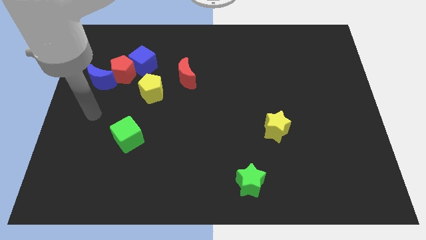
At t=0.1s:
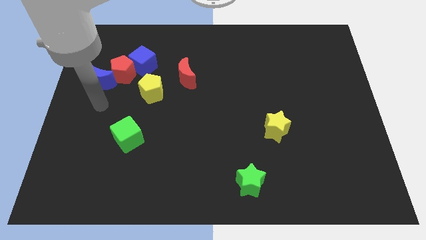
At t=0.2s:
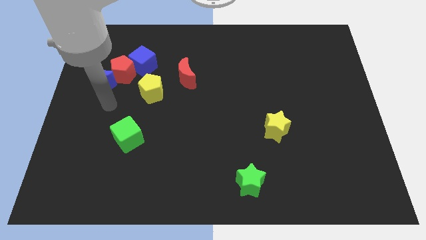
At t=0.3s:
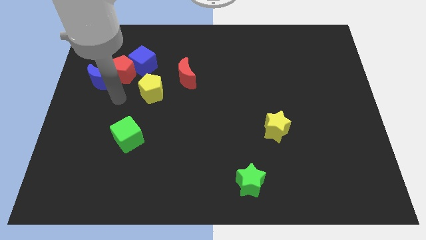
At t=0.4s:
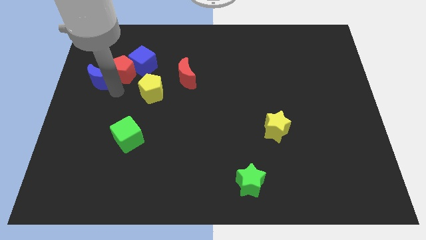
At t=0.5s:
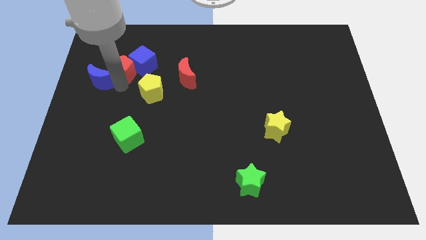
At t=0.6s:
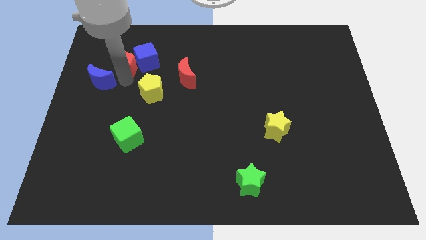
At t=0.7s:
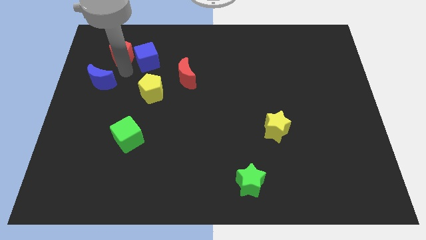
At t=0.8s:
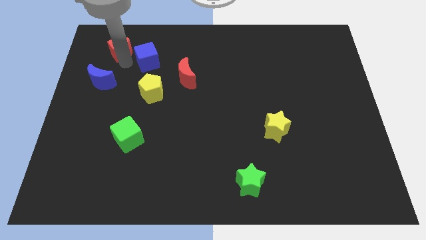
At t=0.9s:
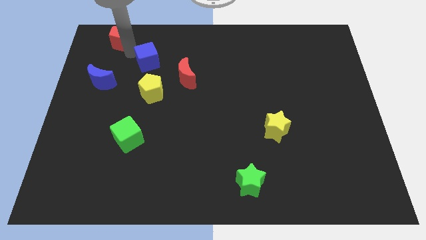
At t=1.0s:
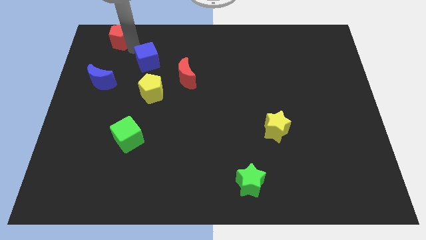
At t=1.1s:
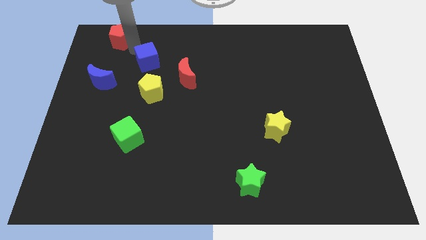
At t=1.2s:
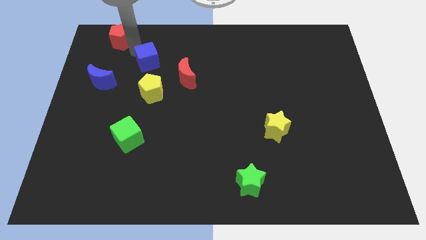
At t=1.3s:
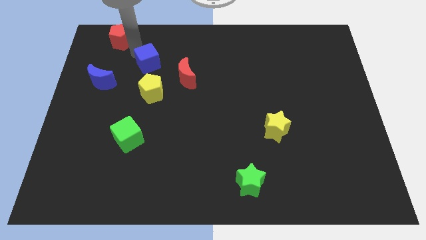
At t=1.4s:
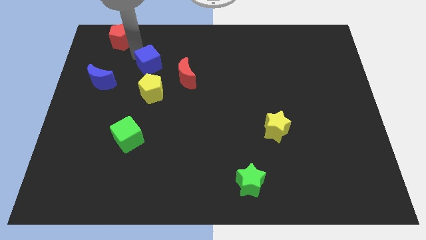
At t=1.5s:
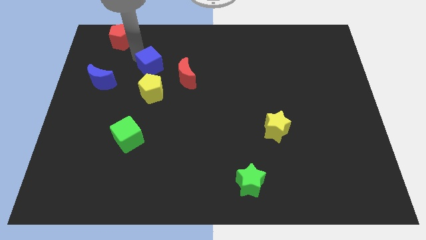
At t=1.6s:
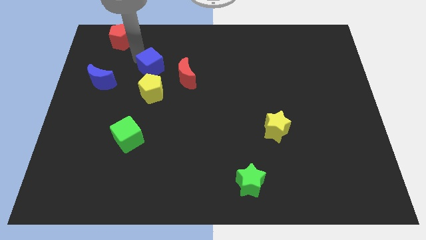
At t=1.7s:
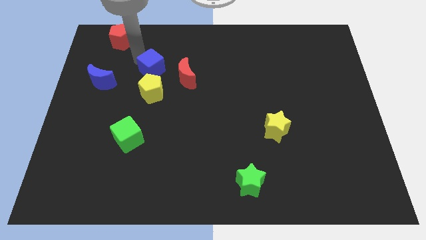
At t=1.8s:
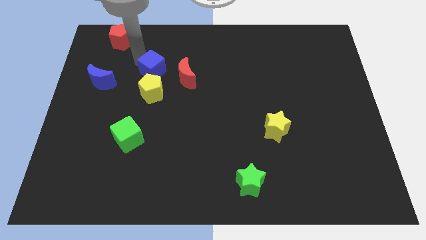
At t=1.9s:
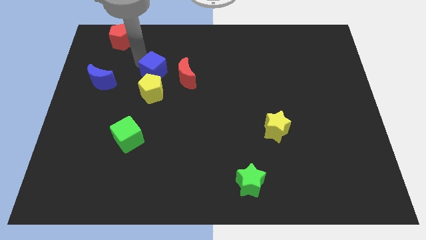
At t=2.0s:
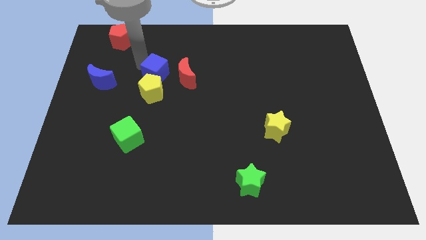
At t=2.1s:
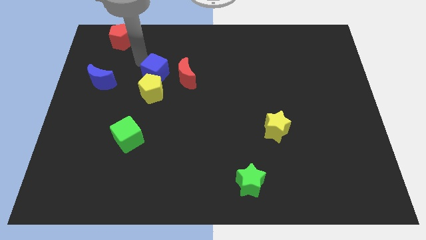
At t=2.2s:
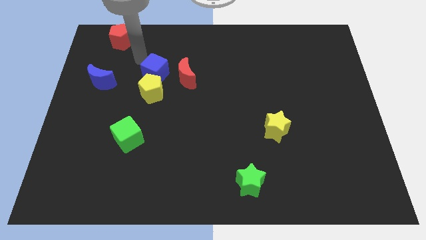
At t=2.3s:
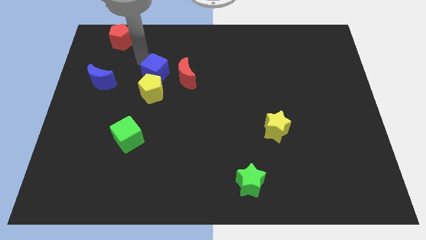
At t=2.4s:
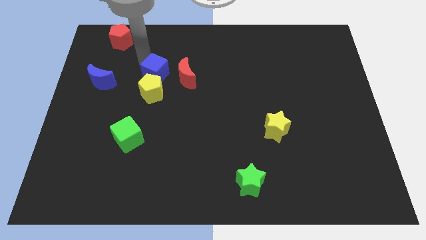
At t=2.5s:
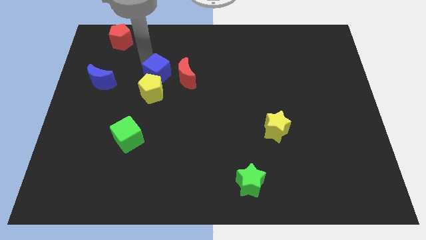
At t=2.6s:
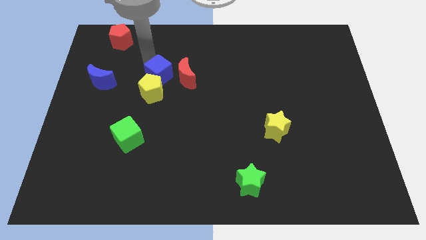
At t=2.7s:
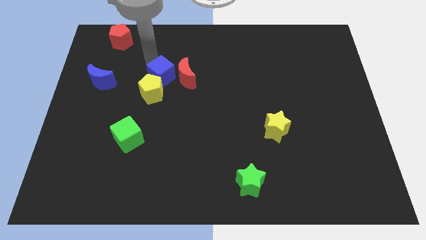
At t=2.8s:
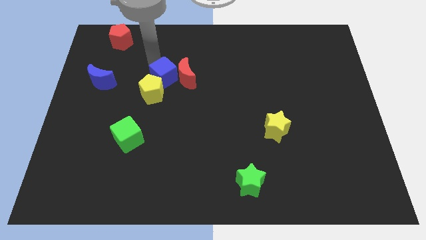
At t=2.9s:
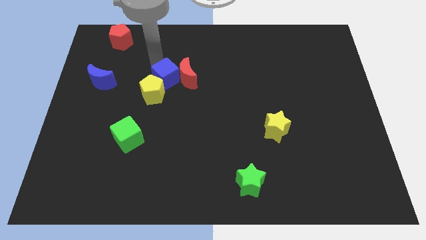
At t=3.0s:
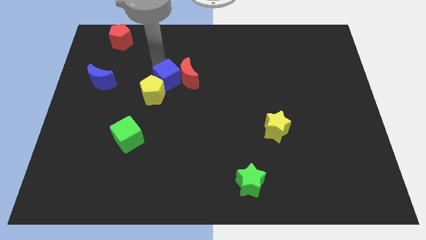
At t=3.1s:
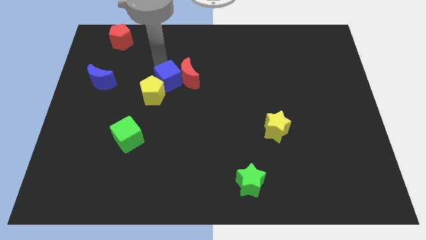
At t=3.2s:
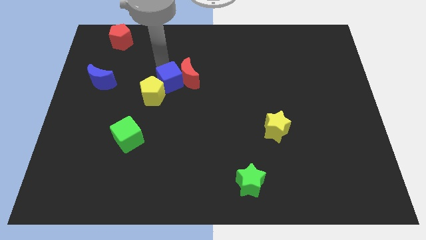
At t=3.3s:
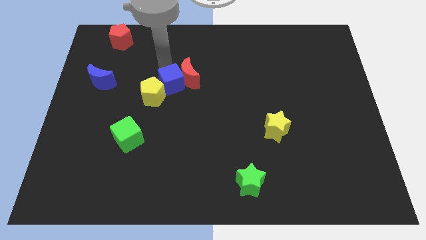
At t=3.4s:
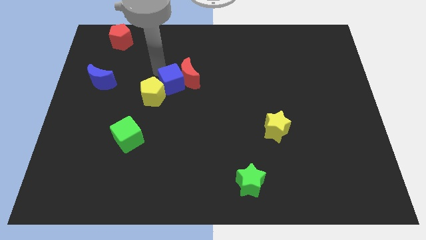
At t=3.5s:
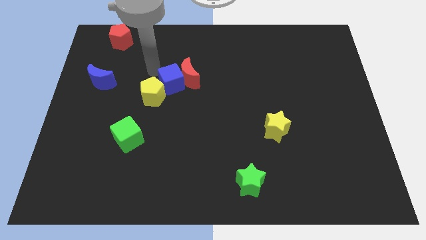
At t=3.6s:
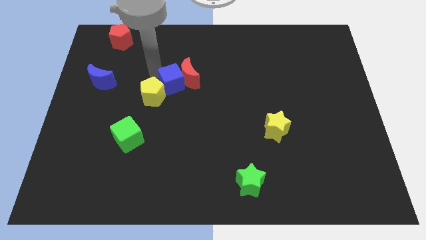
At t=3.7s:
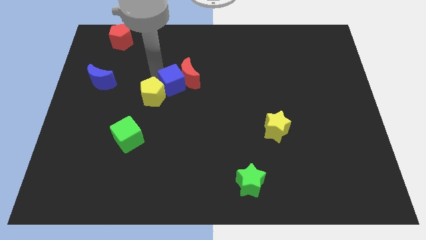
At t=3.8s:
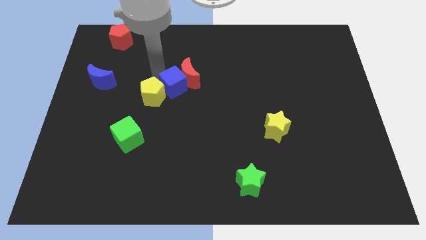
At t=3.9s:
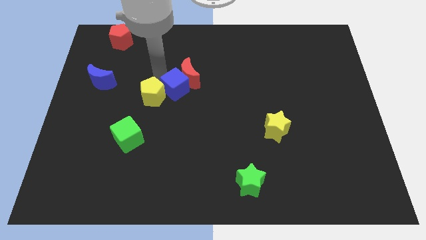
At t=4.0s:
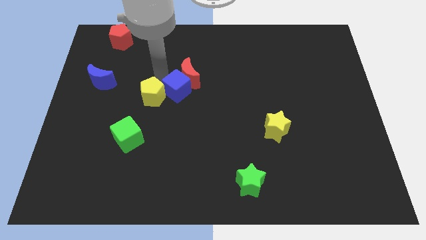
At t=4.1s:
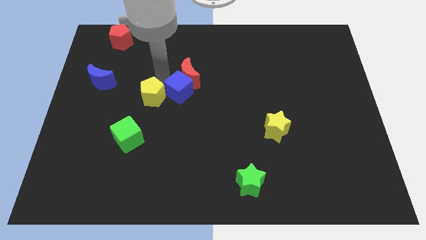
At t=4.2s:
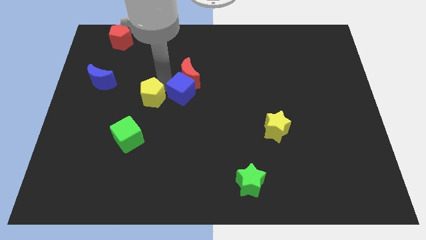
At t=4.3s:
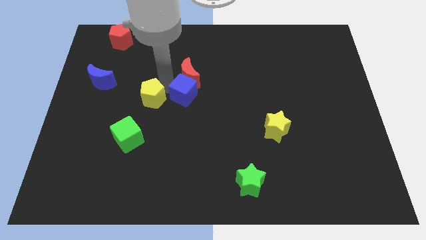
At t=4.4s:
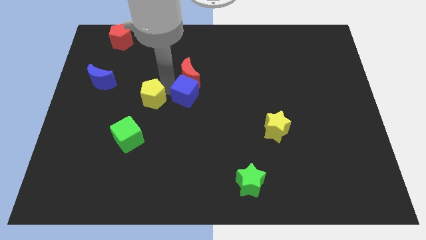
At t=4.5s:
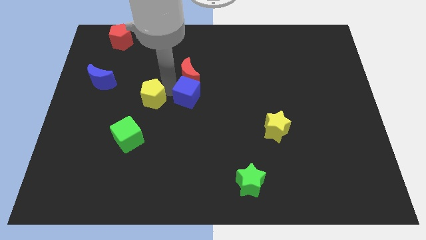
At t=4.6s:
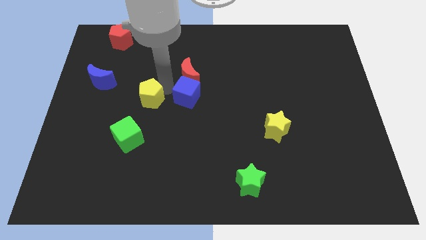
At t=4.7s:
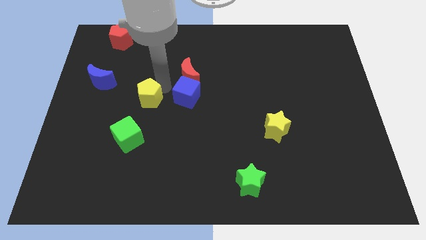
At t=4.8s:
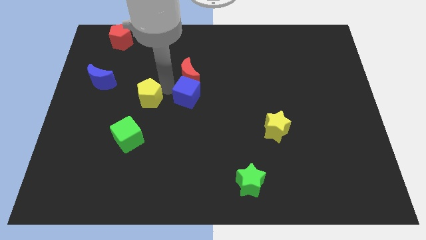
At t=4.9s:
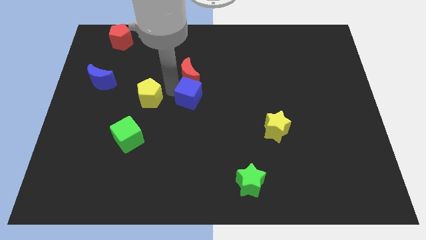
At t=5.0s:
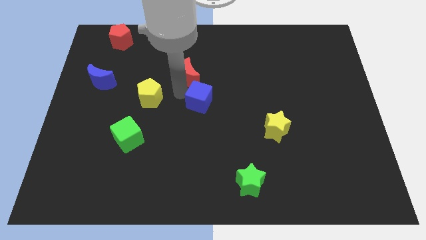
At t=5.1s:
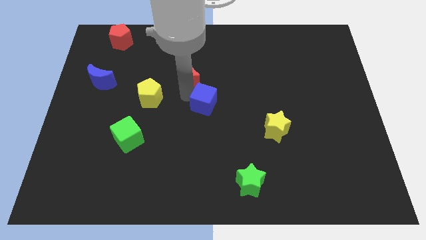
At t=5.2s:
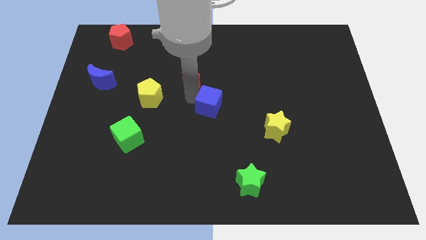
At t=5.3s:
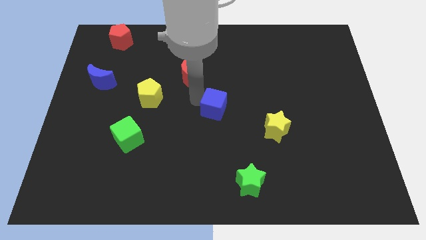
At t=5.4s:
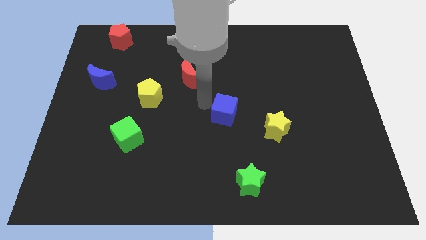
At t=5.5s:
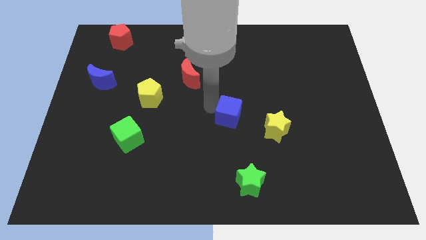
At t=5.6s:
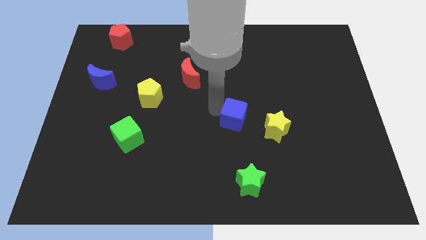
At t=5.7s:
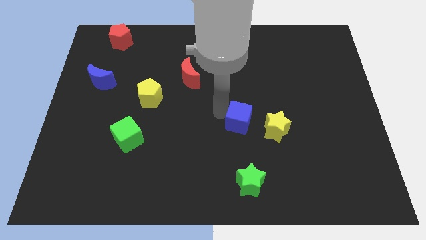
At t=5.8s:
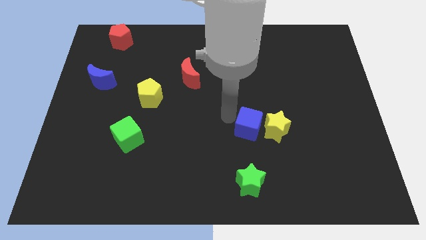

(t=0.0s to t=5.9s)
slide the blue cube towards the yellow star

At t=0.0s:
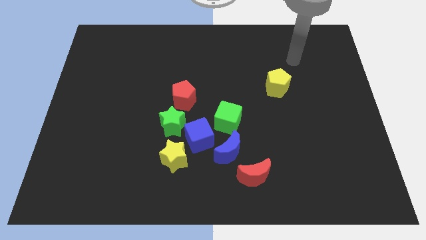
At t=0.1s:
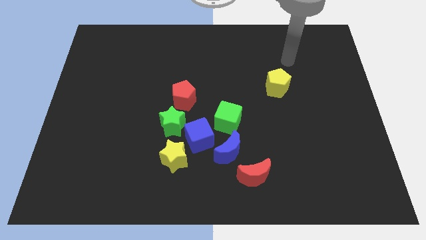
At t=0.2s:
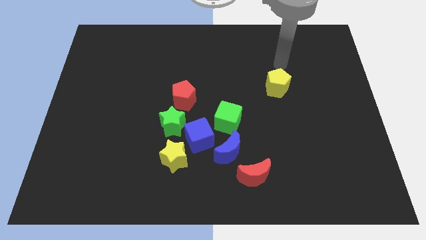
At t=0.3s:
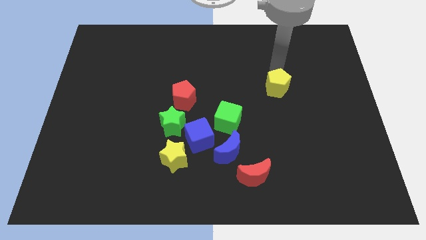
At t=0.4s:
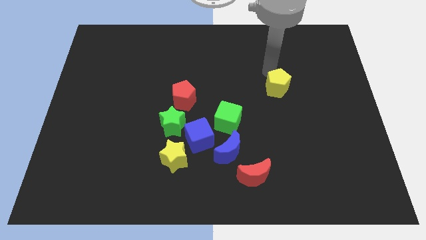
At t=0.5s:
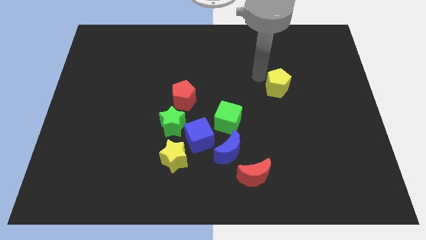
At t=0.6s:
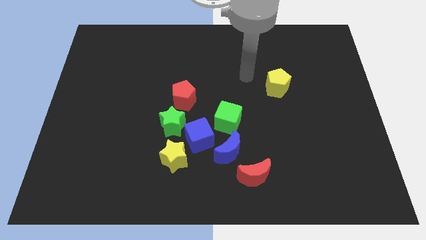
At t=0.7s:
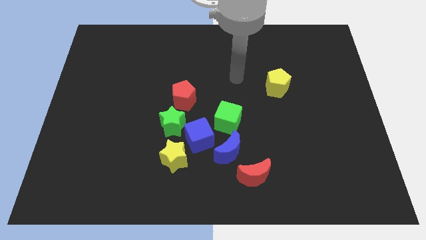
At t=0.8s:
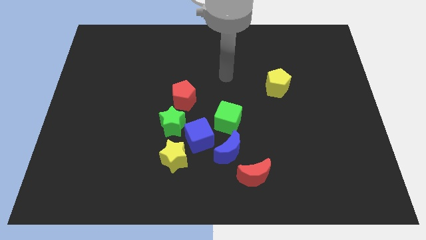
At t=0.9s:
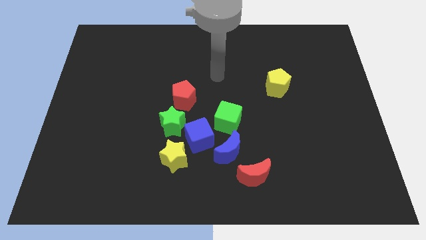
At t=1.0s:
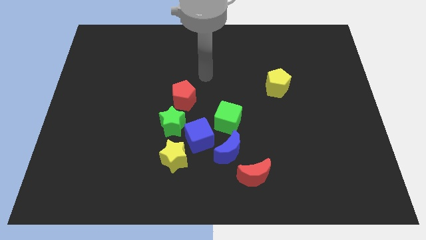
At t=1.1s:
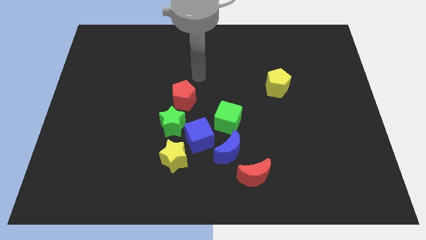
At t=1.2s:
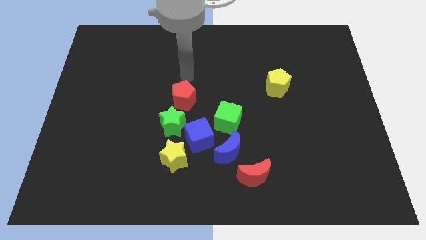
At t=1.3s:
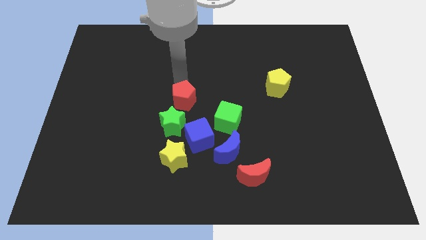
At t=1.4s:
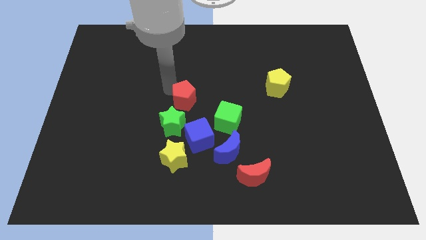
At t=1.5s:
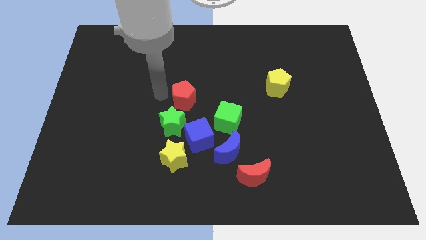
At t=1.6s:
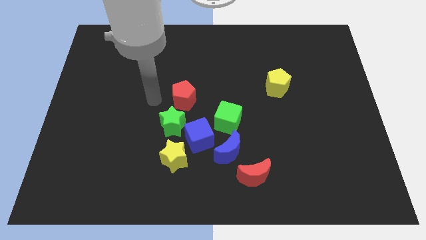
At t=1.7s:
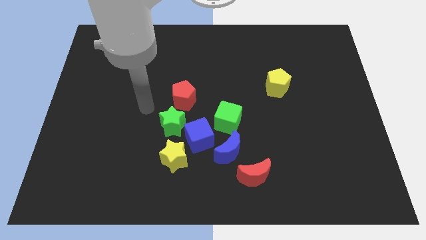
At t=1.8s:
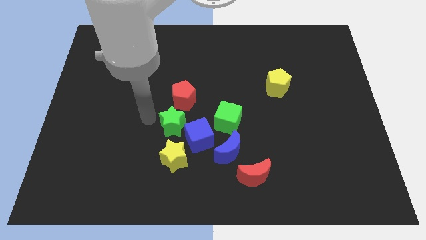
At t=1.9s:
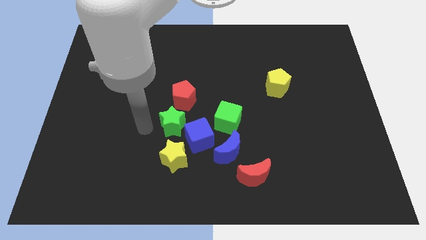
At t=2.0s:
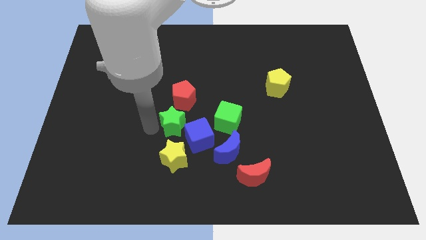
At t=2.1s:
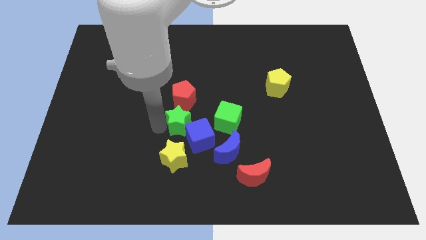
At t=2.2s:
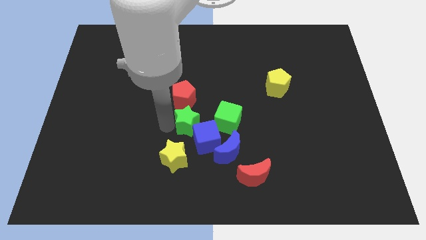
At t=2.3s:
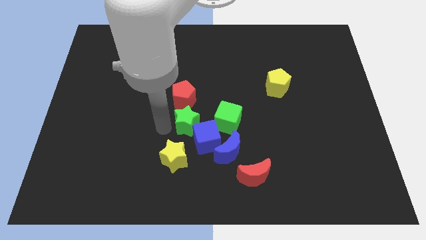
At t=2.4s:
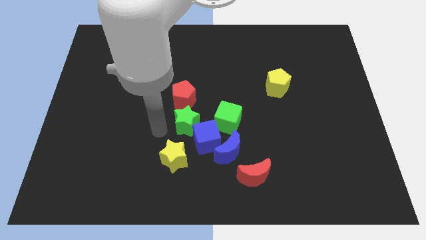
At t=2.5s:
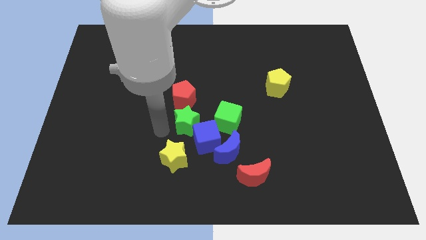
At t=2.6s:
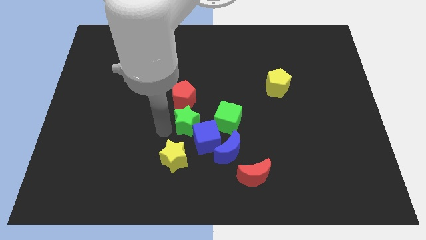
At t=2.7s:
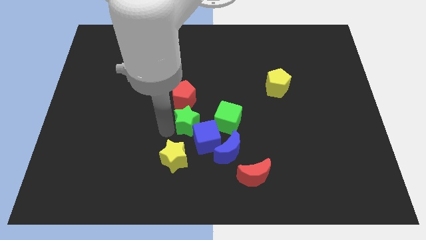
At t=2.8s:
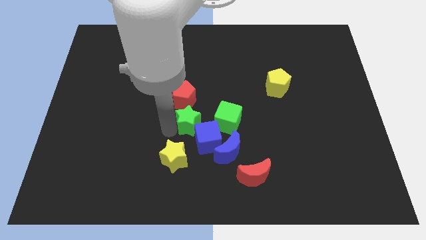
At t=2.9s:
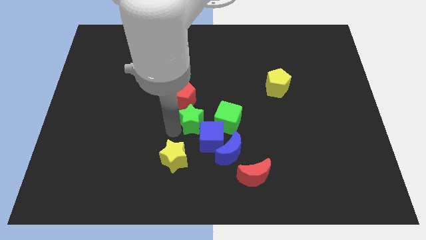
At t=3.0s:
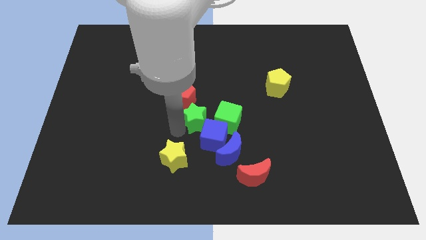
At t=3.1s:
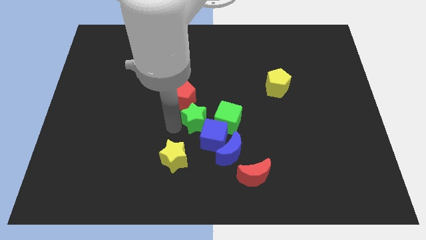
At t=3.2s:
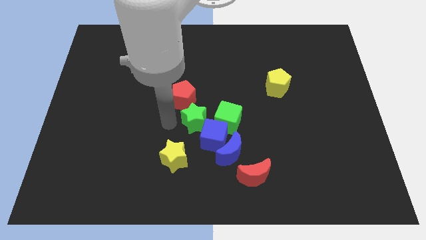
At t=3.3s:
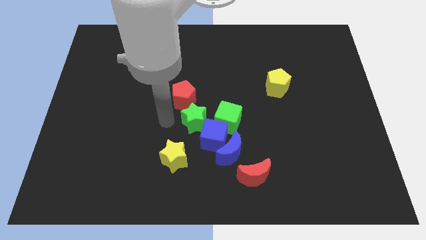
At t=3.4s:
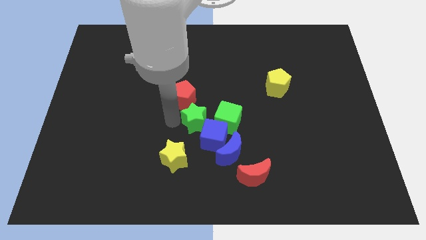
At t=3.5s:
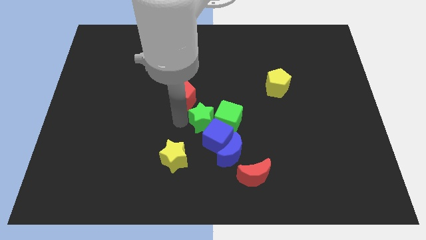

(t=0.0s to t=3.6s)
slide the green star next to the green cube
